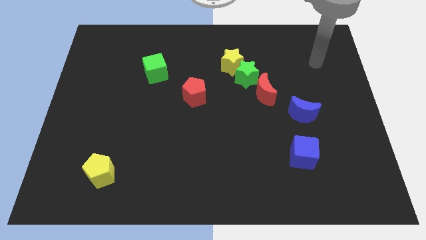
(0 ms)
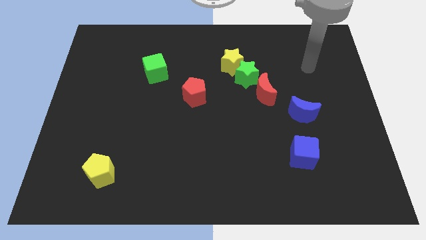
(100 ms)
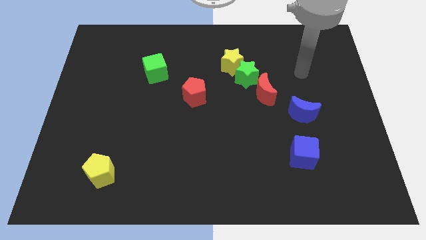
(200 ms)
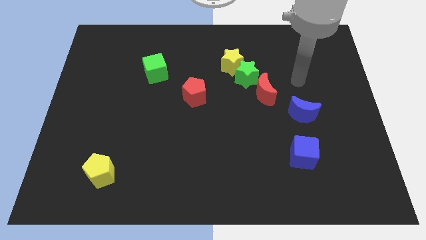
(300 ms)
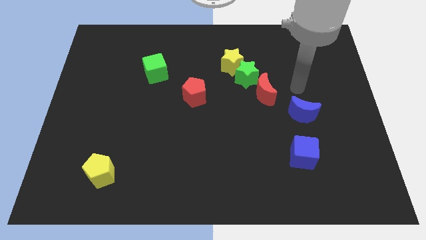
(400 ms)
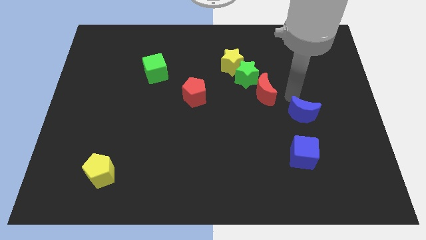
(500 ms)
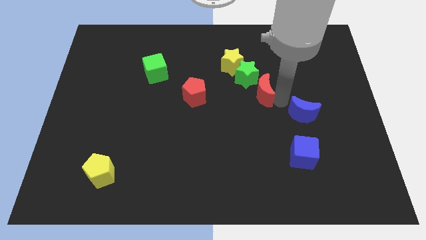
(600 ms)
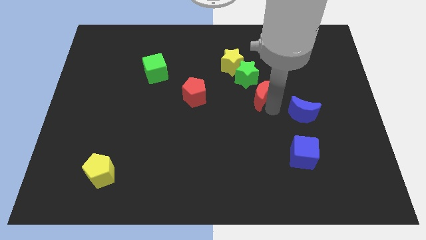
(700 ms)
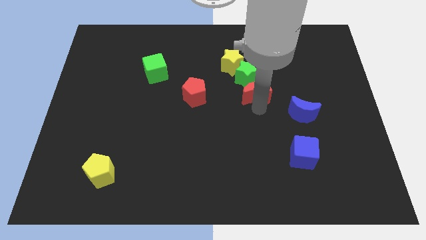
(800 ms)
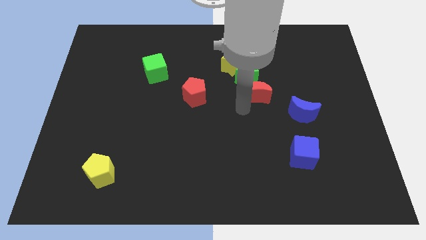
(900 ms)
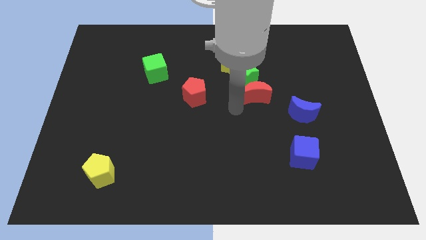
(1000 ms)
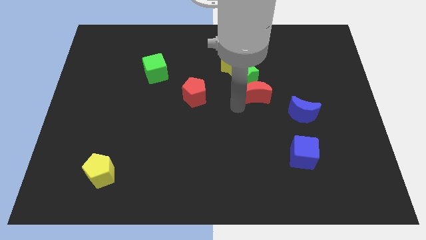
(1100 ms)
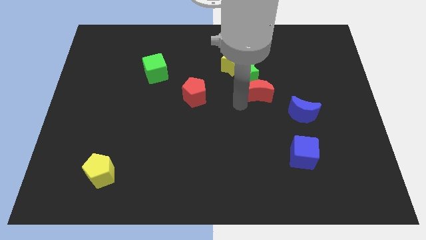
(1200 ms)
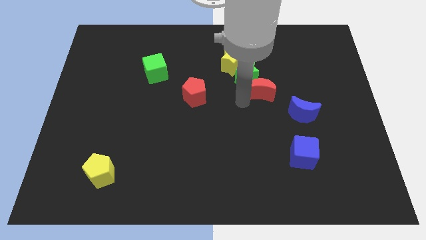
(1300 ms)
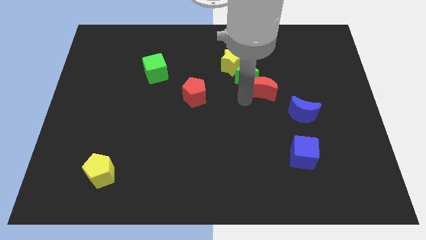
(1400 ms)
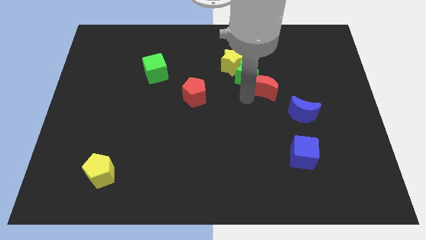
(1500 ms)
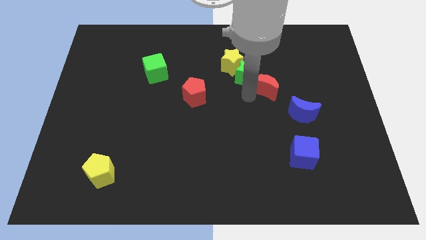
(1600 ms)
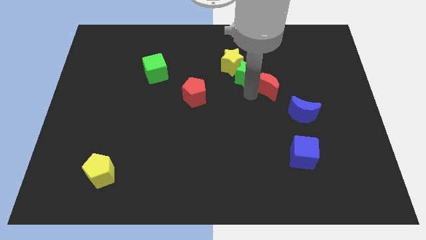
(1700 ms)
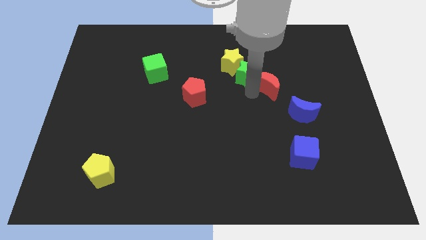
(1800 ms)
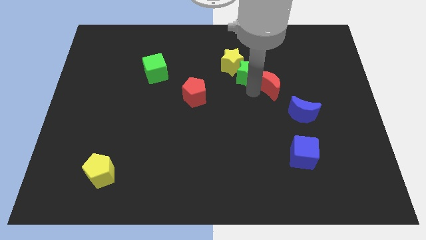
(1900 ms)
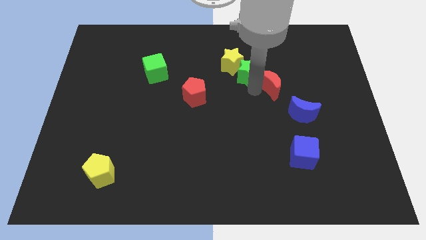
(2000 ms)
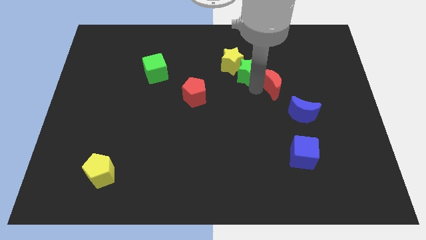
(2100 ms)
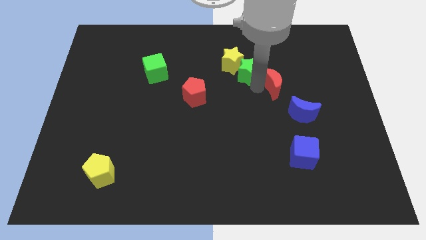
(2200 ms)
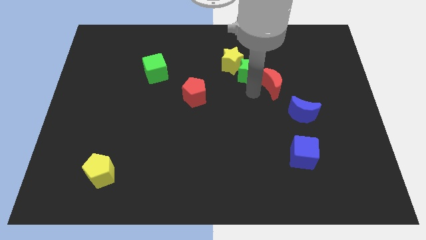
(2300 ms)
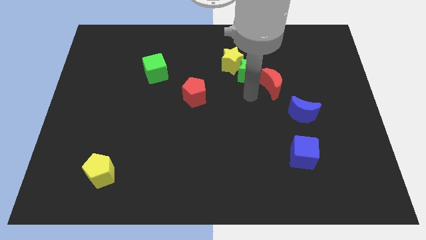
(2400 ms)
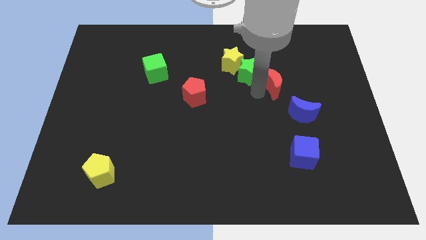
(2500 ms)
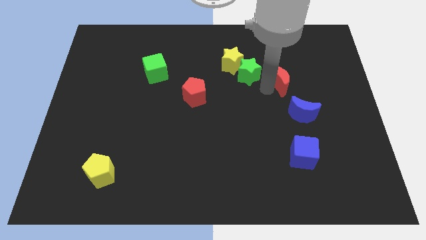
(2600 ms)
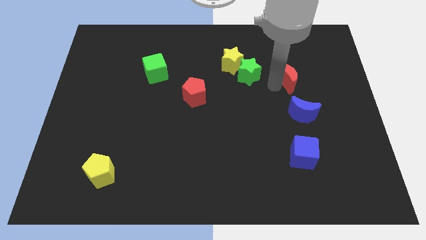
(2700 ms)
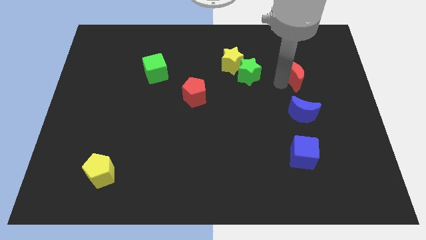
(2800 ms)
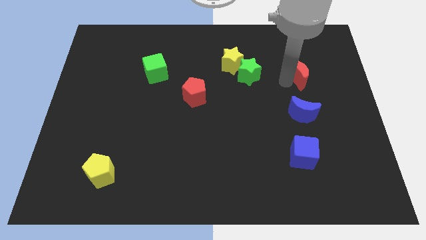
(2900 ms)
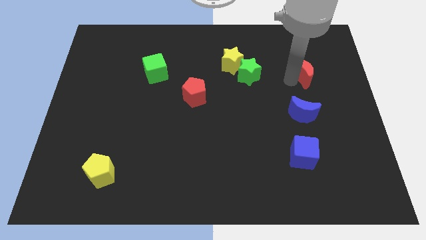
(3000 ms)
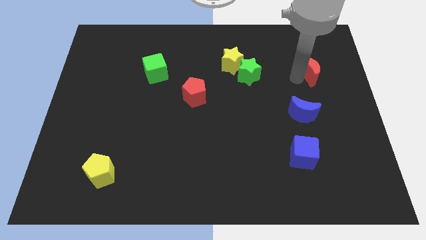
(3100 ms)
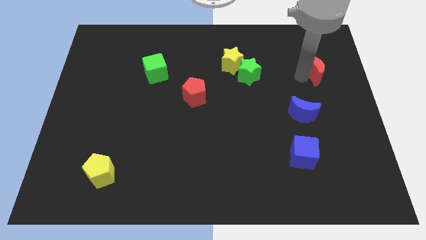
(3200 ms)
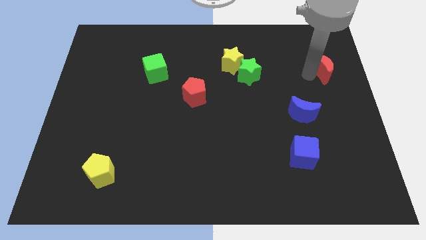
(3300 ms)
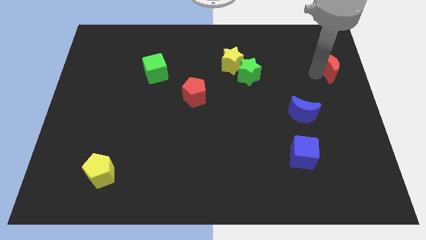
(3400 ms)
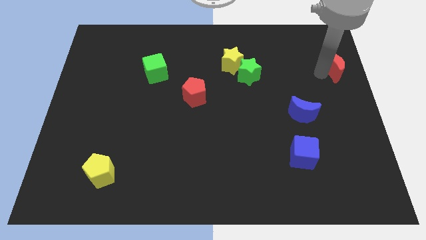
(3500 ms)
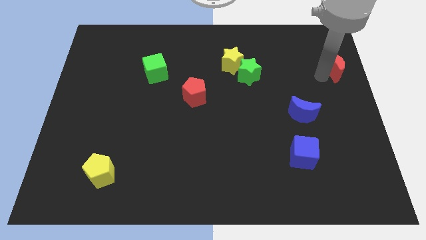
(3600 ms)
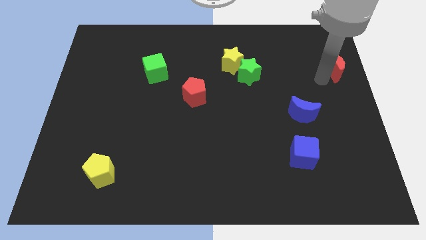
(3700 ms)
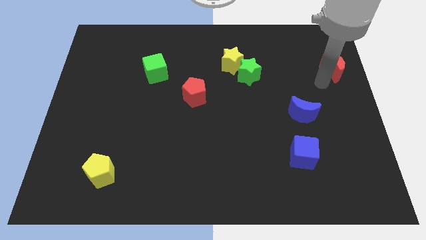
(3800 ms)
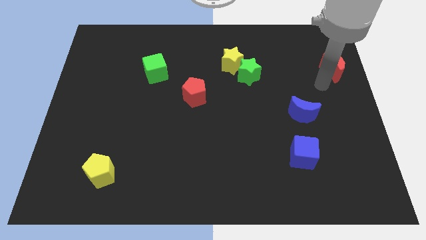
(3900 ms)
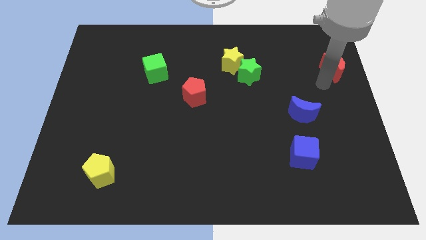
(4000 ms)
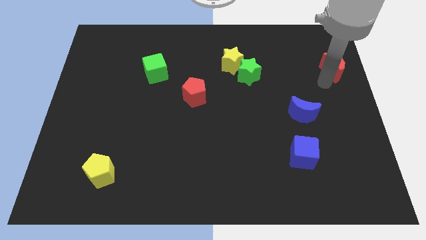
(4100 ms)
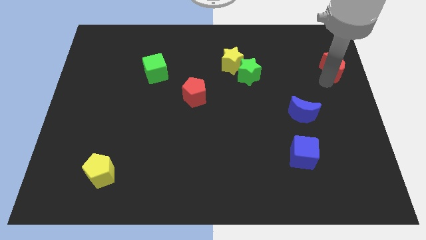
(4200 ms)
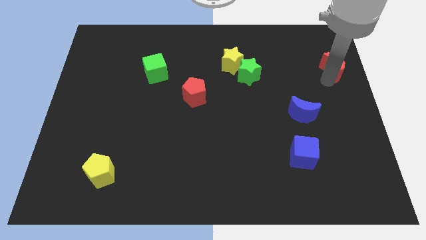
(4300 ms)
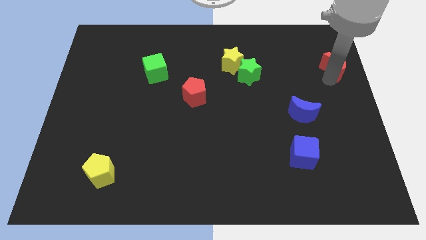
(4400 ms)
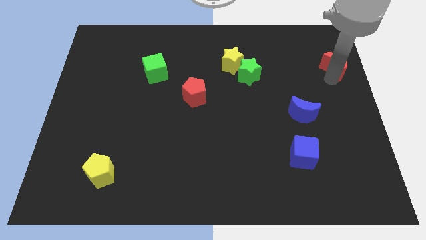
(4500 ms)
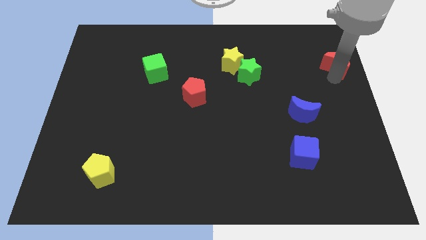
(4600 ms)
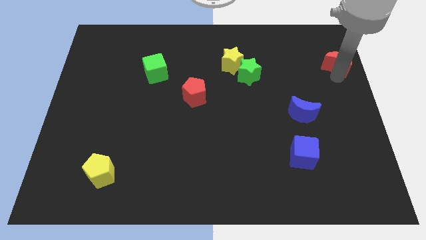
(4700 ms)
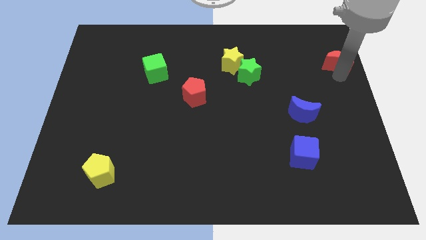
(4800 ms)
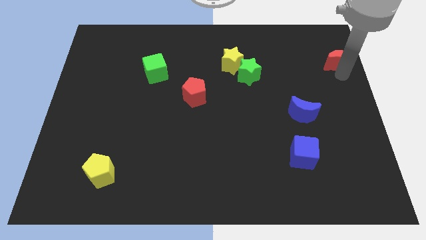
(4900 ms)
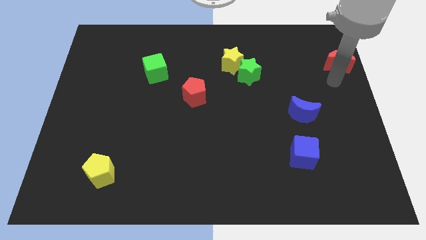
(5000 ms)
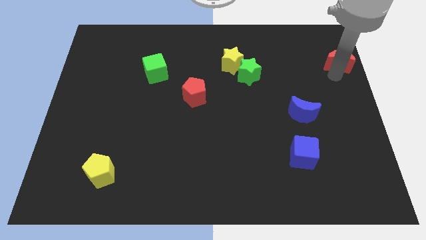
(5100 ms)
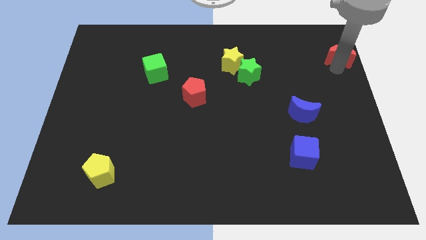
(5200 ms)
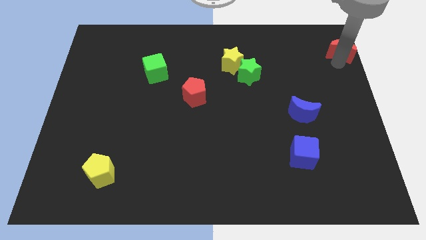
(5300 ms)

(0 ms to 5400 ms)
slide the red moon to the upper right corner

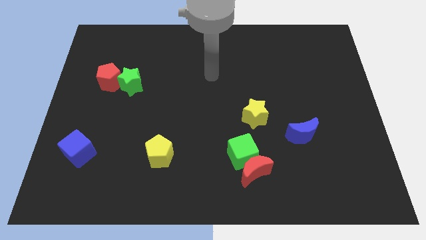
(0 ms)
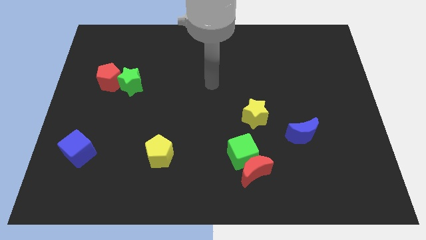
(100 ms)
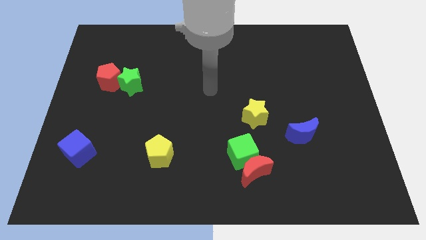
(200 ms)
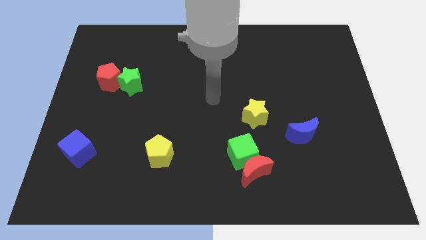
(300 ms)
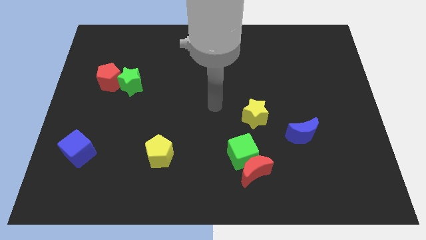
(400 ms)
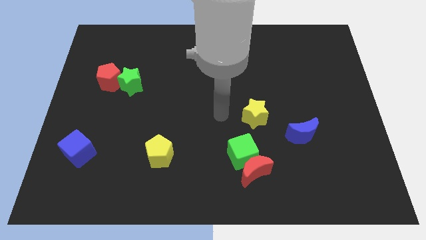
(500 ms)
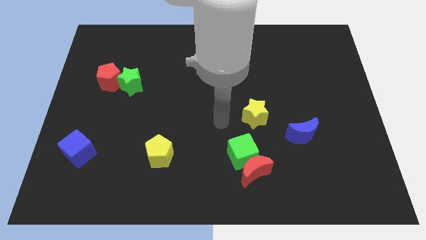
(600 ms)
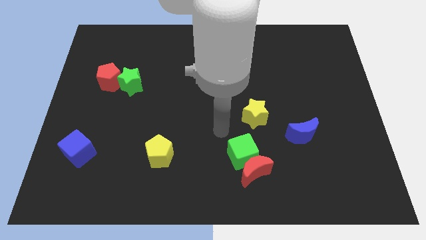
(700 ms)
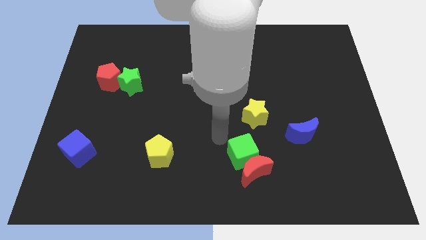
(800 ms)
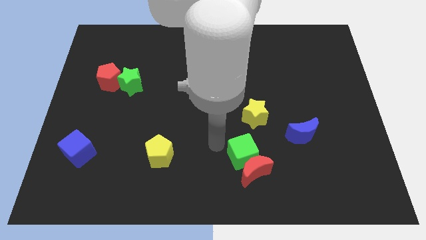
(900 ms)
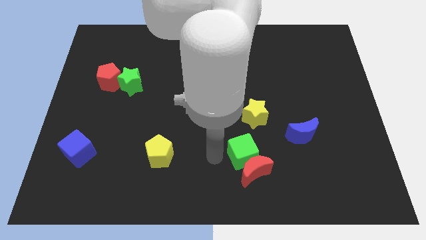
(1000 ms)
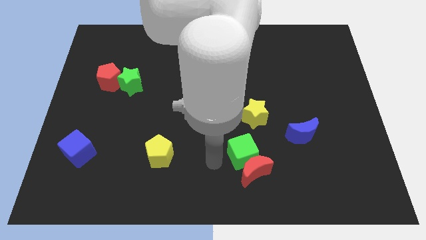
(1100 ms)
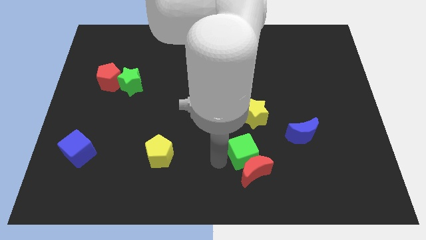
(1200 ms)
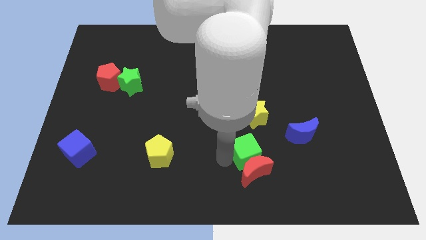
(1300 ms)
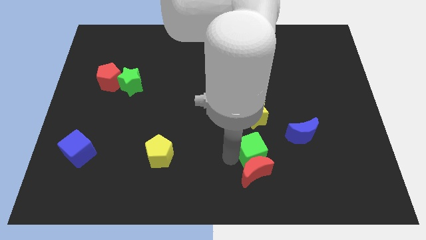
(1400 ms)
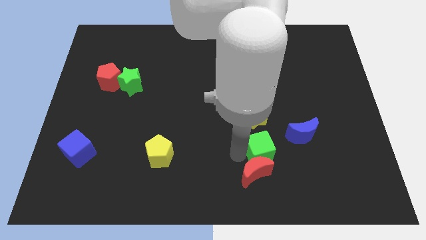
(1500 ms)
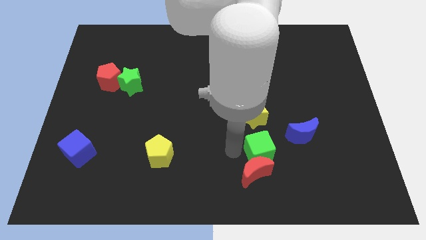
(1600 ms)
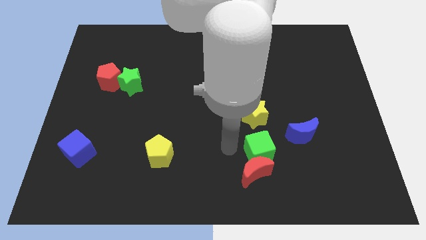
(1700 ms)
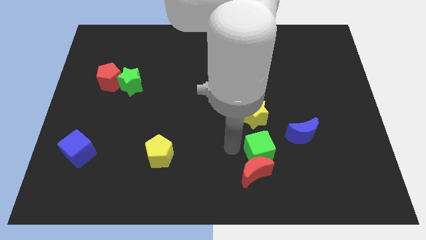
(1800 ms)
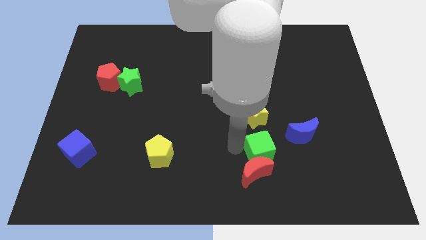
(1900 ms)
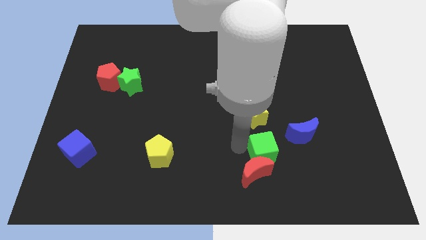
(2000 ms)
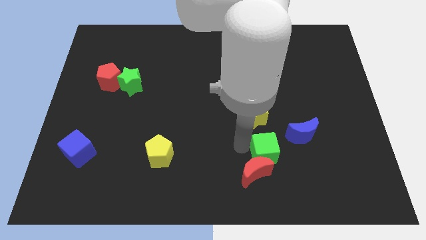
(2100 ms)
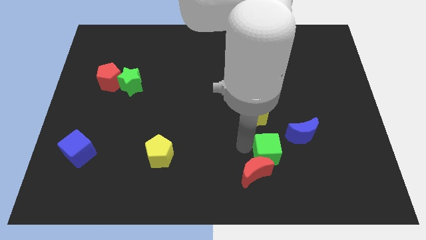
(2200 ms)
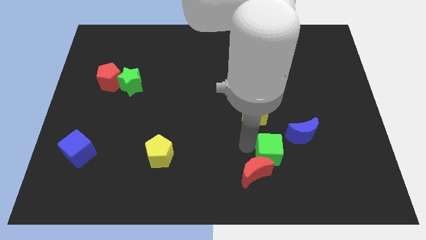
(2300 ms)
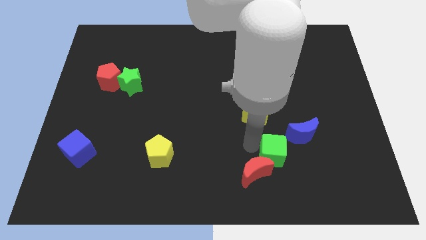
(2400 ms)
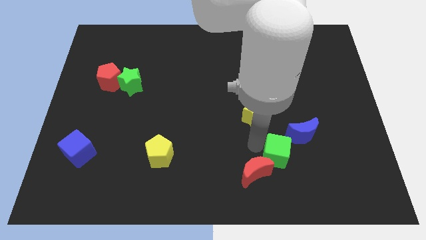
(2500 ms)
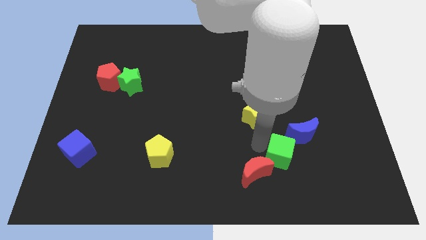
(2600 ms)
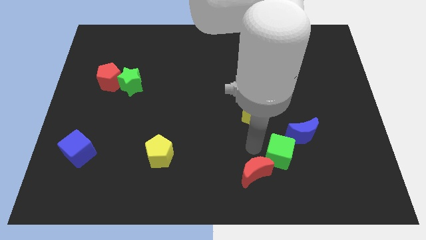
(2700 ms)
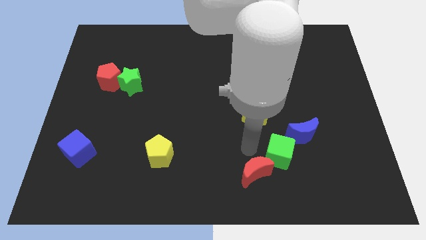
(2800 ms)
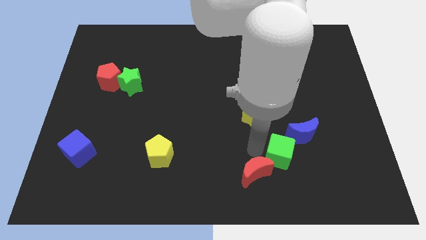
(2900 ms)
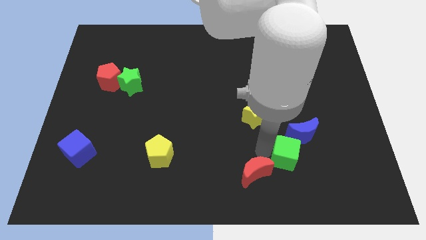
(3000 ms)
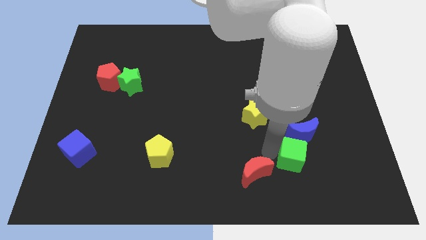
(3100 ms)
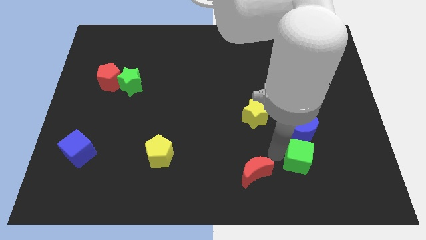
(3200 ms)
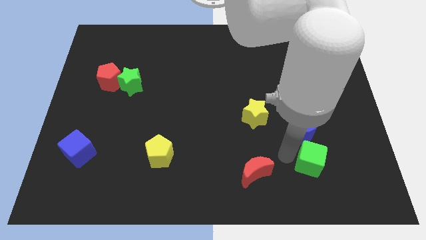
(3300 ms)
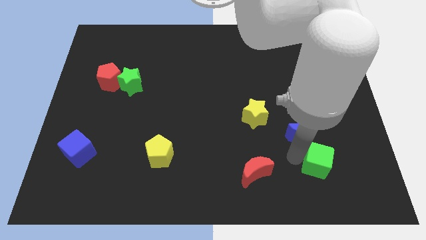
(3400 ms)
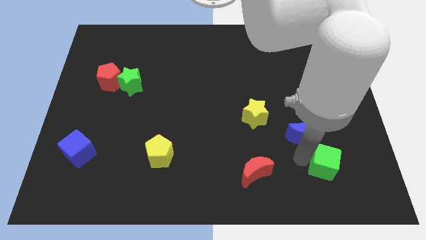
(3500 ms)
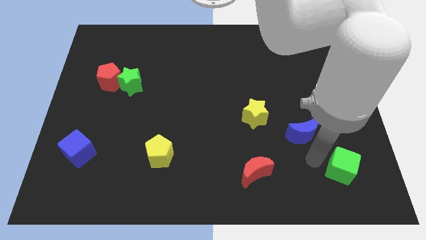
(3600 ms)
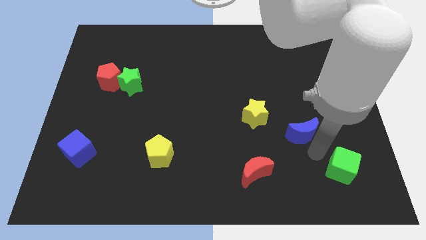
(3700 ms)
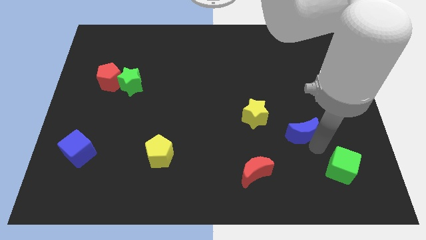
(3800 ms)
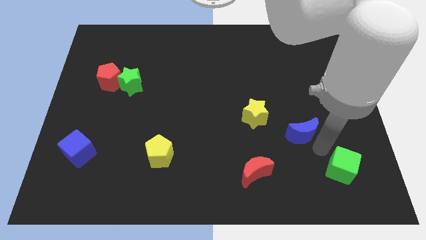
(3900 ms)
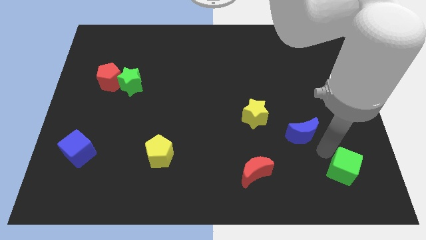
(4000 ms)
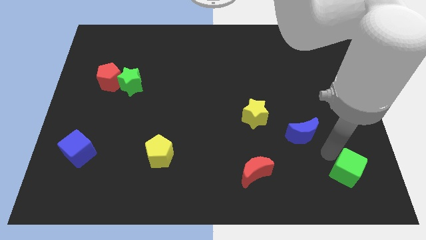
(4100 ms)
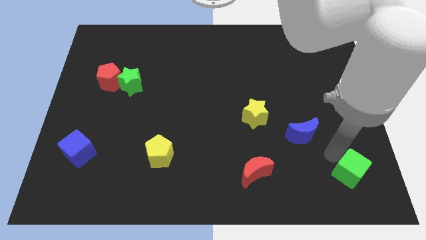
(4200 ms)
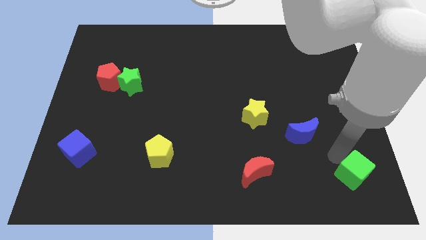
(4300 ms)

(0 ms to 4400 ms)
put the green cube to the bottom right of the board
